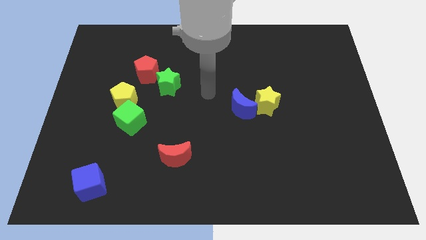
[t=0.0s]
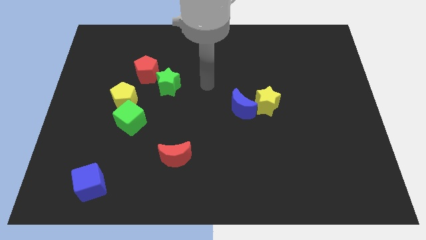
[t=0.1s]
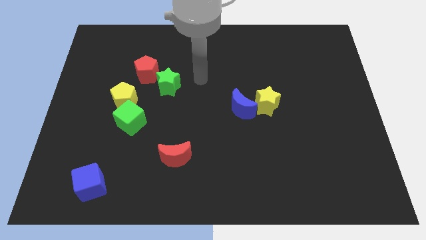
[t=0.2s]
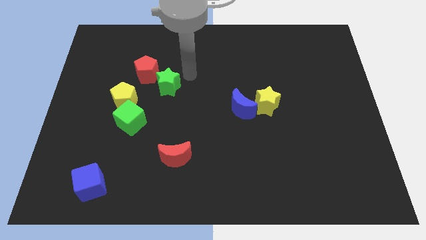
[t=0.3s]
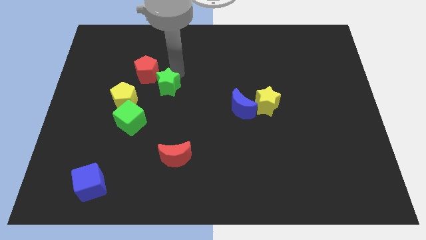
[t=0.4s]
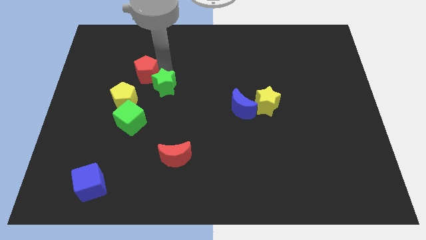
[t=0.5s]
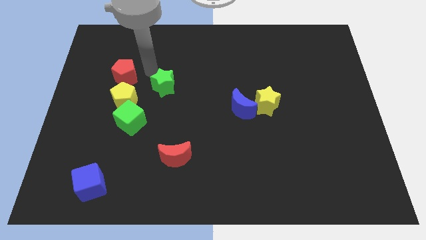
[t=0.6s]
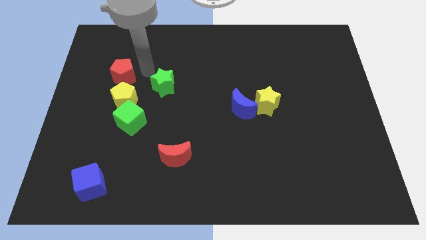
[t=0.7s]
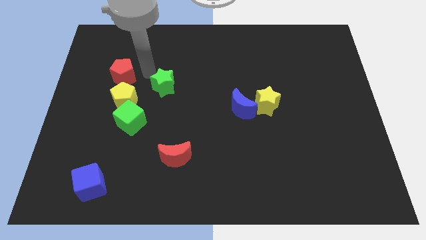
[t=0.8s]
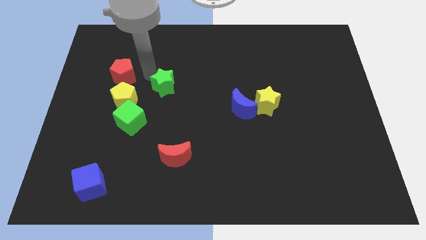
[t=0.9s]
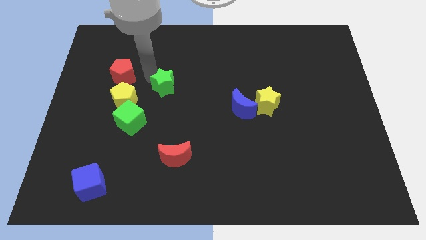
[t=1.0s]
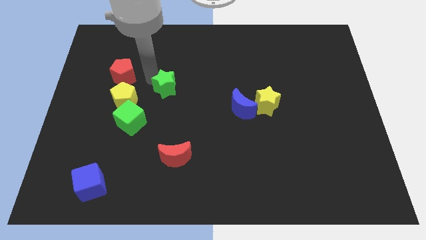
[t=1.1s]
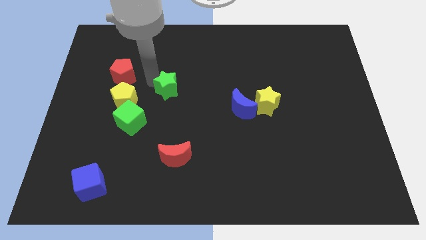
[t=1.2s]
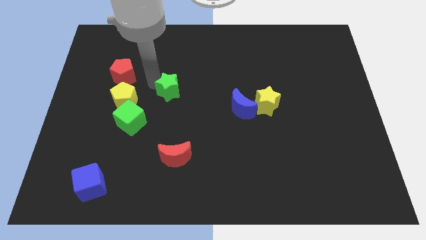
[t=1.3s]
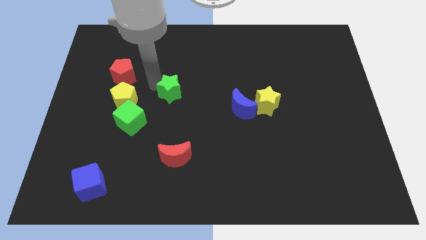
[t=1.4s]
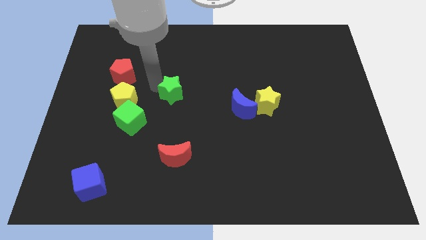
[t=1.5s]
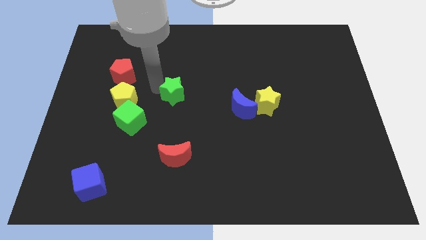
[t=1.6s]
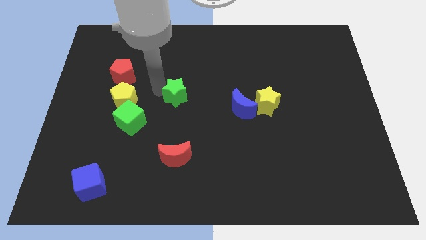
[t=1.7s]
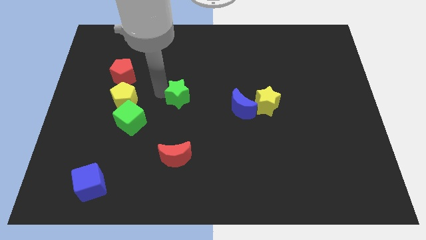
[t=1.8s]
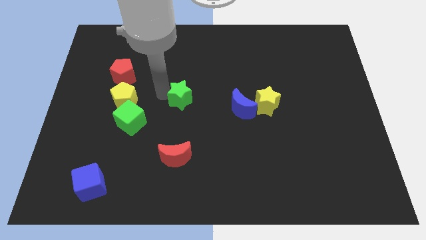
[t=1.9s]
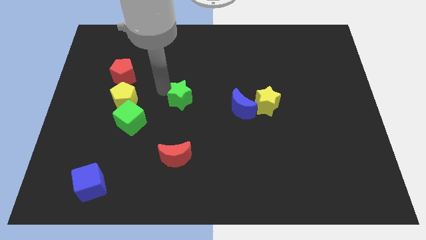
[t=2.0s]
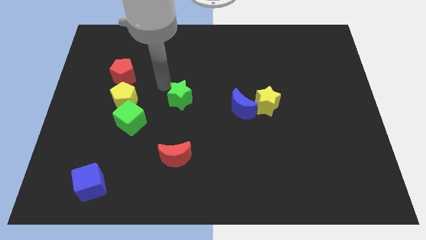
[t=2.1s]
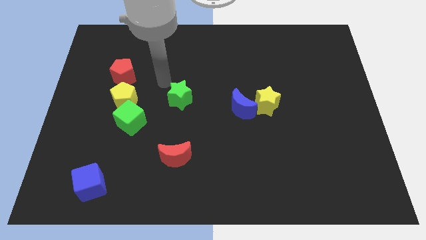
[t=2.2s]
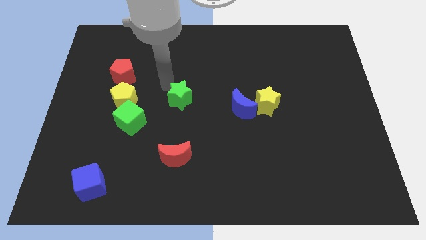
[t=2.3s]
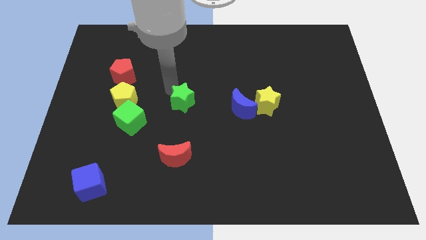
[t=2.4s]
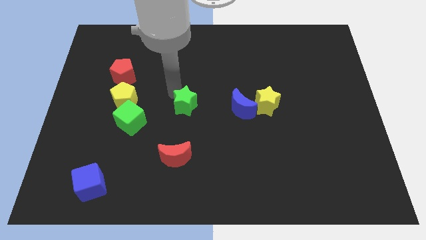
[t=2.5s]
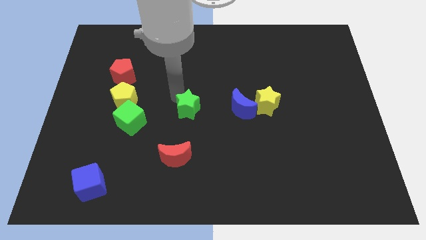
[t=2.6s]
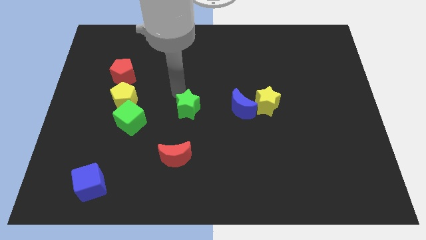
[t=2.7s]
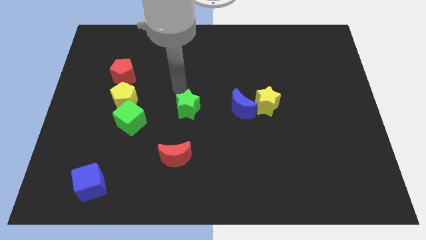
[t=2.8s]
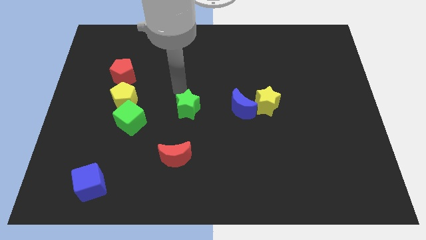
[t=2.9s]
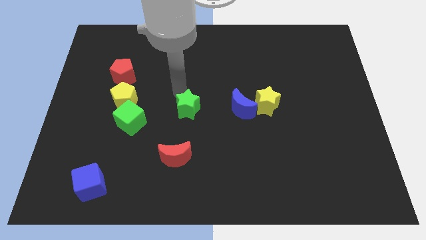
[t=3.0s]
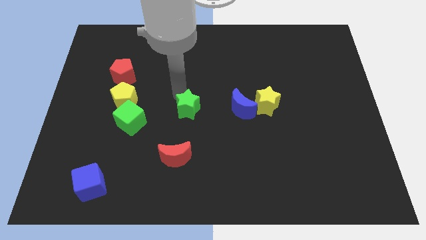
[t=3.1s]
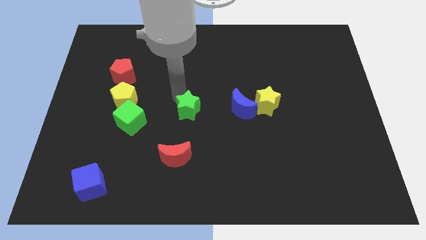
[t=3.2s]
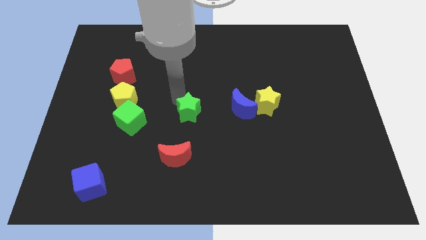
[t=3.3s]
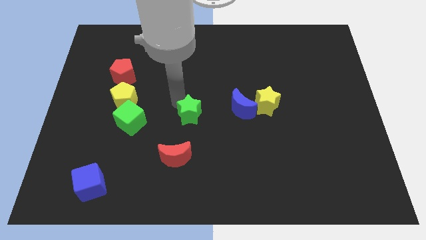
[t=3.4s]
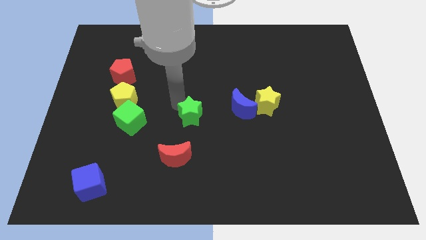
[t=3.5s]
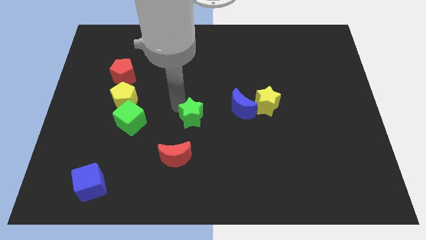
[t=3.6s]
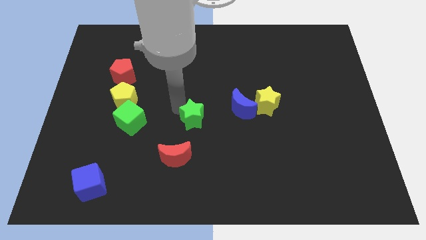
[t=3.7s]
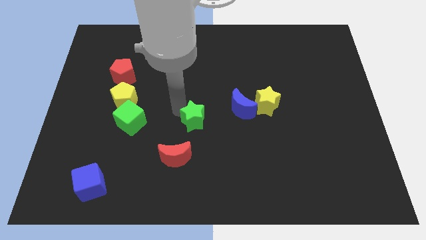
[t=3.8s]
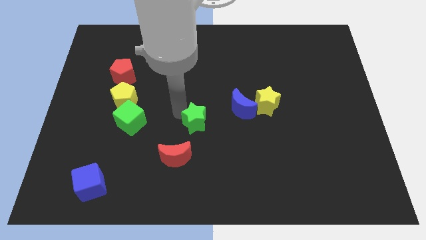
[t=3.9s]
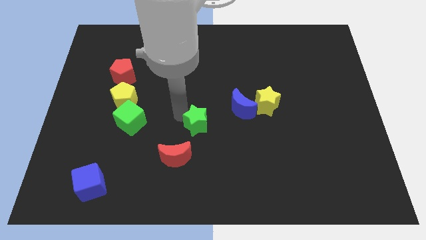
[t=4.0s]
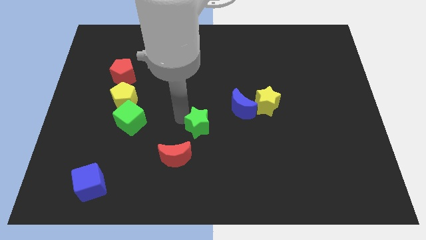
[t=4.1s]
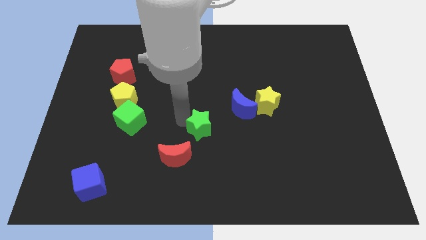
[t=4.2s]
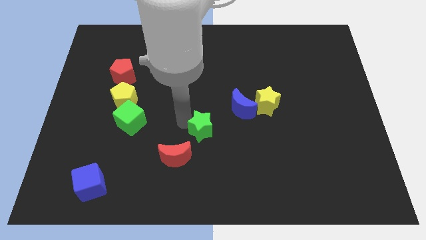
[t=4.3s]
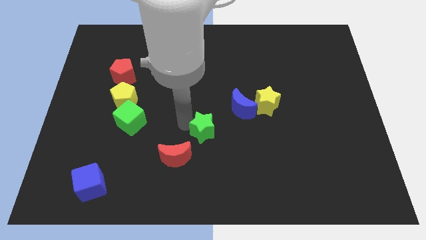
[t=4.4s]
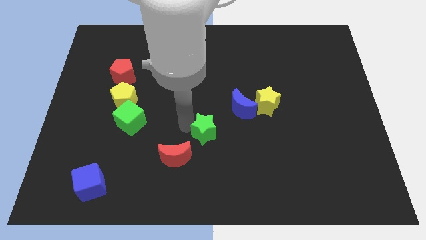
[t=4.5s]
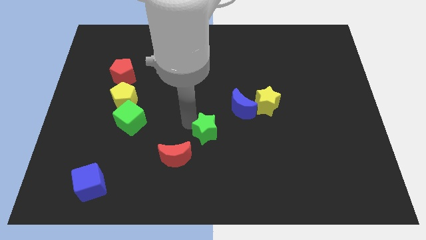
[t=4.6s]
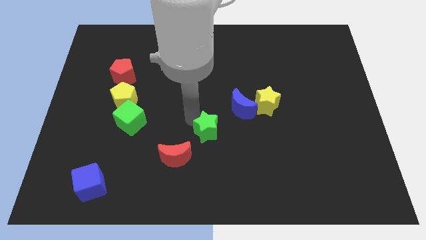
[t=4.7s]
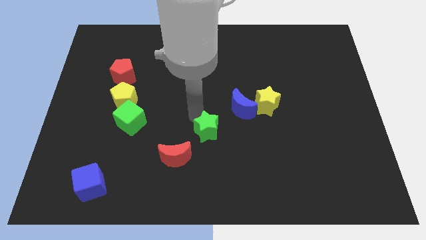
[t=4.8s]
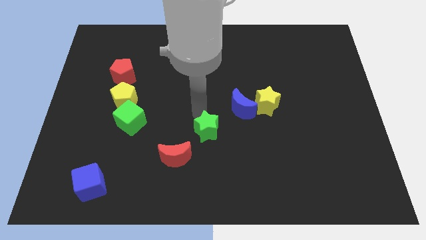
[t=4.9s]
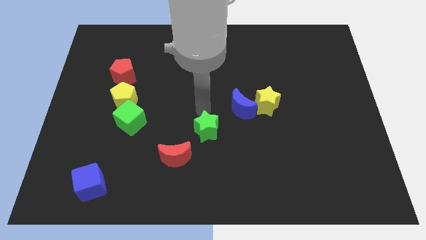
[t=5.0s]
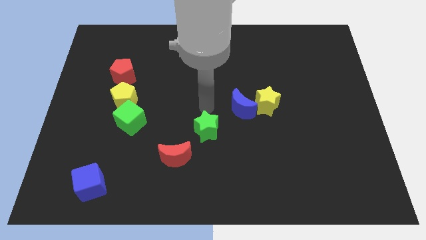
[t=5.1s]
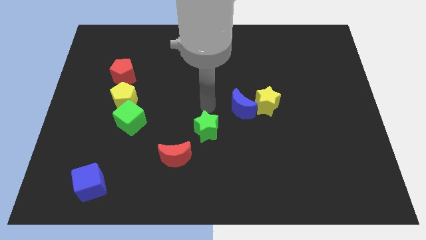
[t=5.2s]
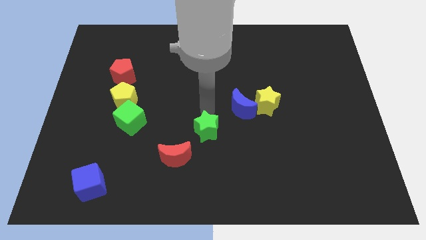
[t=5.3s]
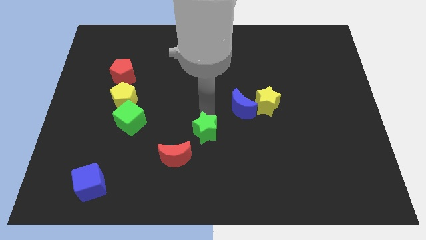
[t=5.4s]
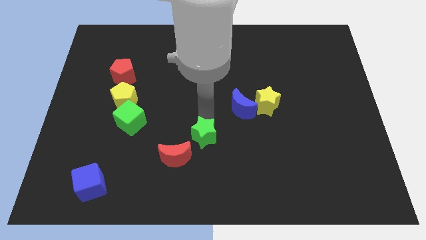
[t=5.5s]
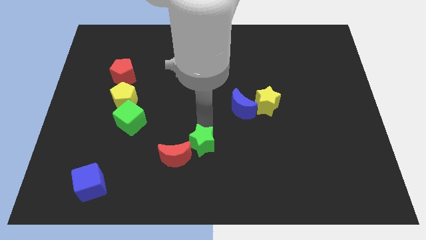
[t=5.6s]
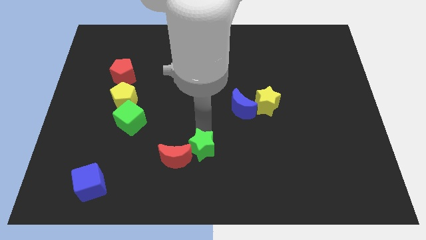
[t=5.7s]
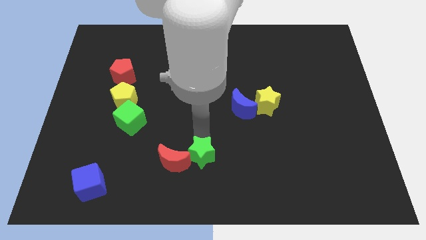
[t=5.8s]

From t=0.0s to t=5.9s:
push the green star to the bottom

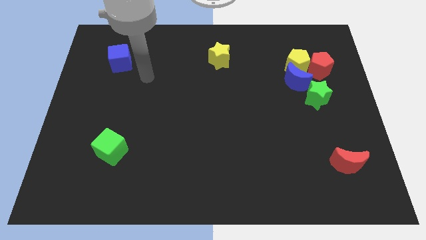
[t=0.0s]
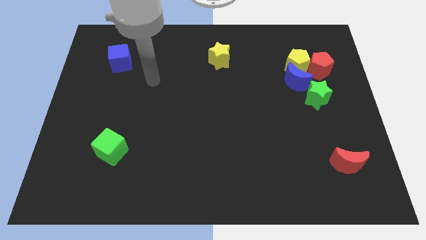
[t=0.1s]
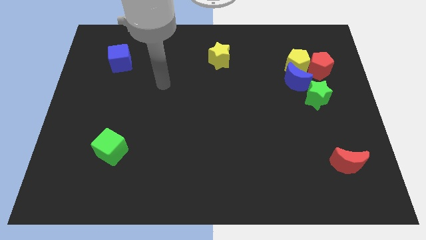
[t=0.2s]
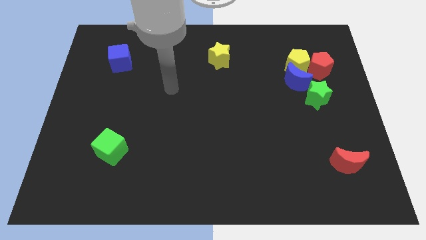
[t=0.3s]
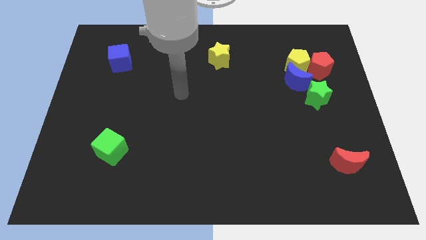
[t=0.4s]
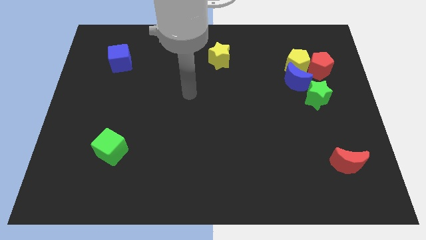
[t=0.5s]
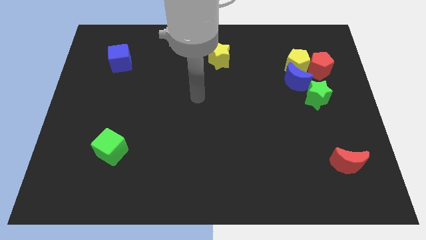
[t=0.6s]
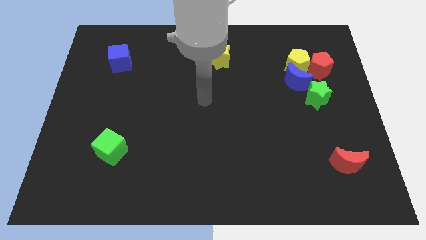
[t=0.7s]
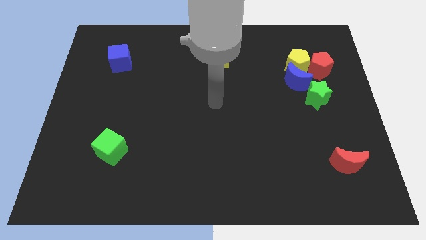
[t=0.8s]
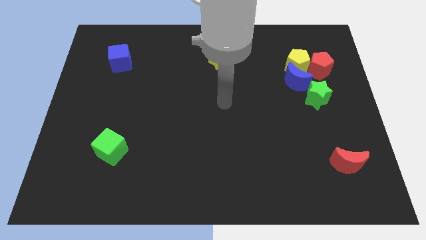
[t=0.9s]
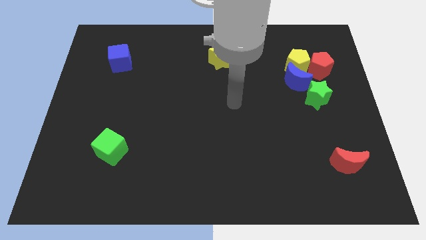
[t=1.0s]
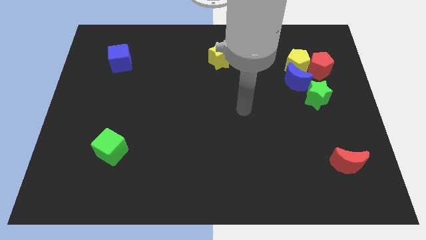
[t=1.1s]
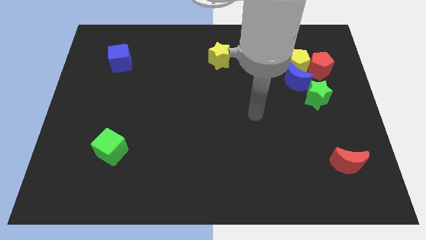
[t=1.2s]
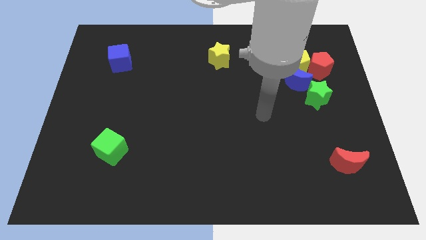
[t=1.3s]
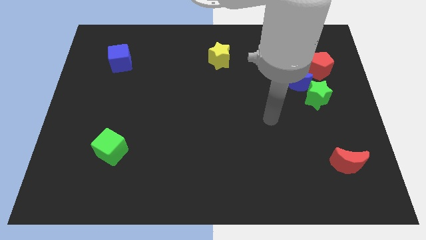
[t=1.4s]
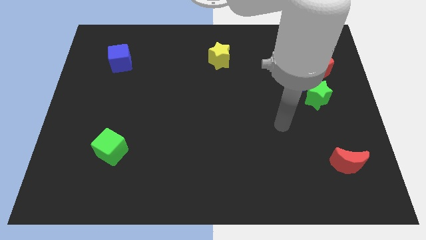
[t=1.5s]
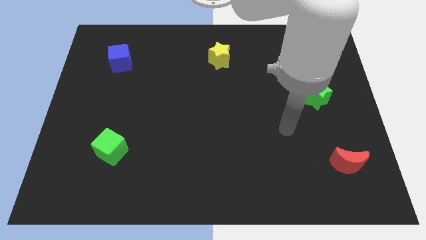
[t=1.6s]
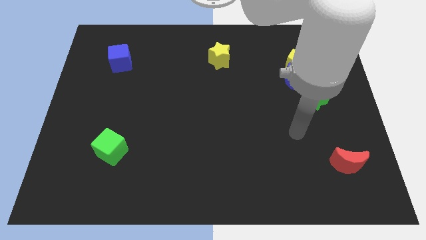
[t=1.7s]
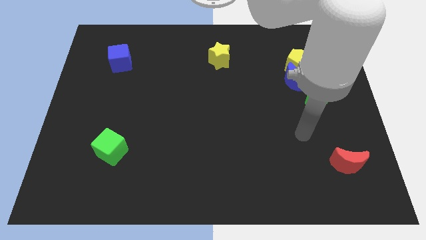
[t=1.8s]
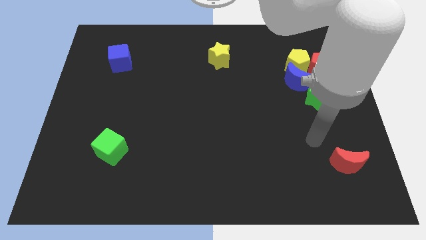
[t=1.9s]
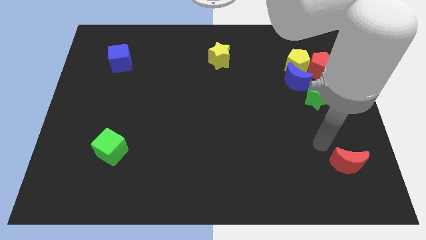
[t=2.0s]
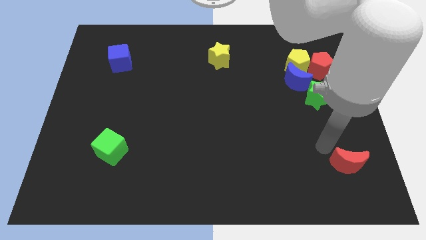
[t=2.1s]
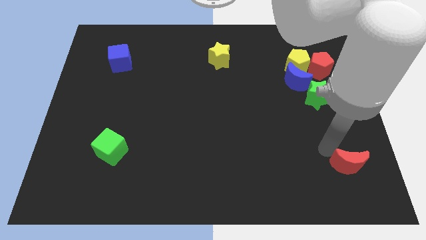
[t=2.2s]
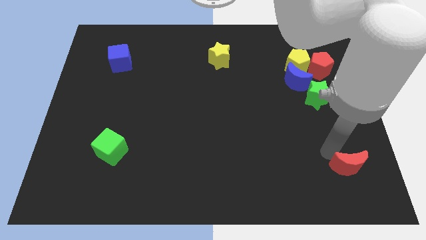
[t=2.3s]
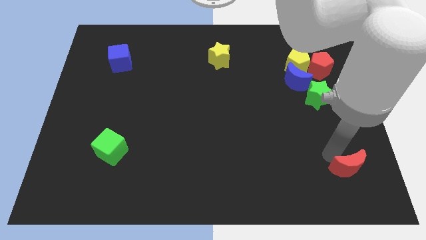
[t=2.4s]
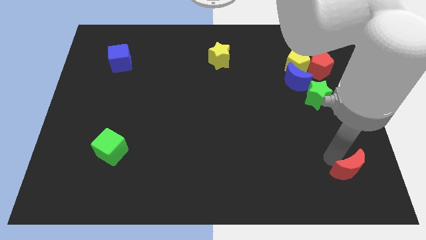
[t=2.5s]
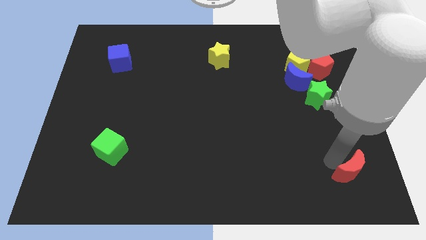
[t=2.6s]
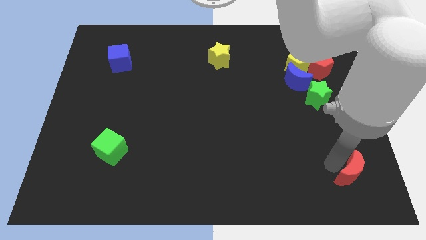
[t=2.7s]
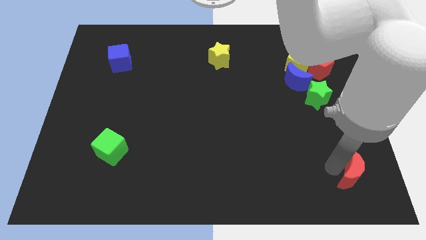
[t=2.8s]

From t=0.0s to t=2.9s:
put the red moon to the bottom right

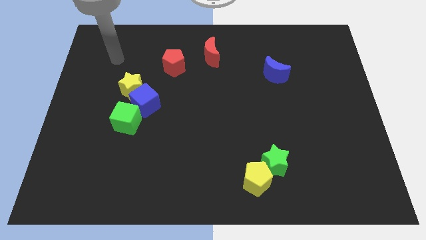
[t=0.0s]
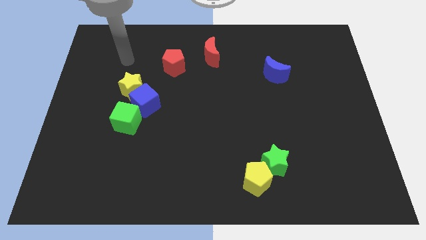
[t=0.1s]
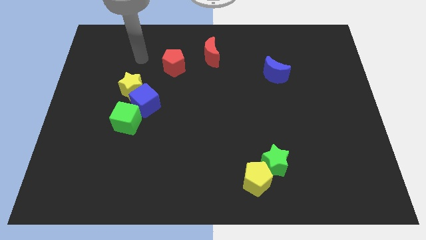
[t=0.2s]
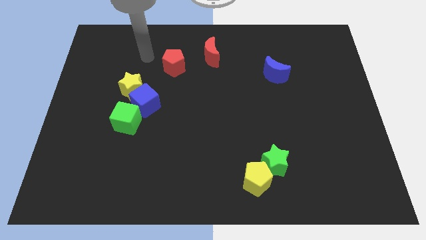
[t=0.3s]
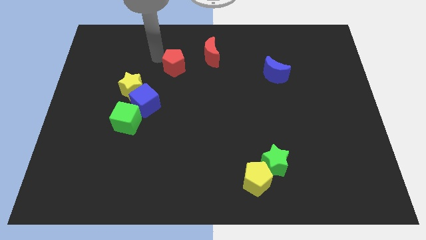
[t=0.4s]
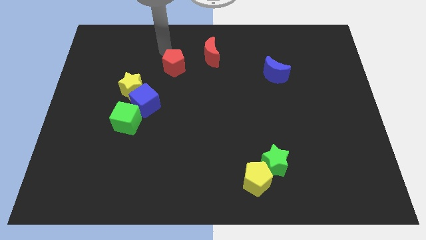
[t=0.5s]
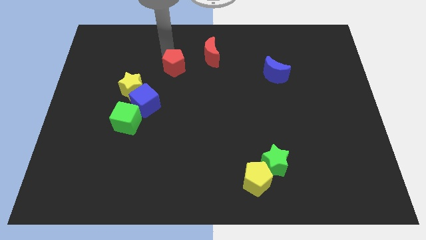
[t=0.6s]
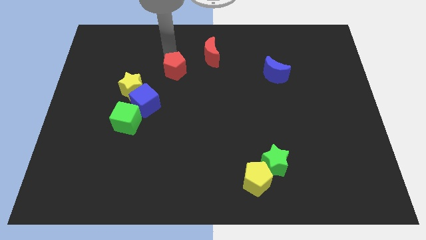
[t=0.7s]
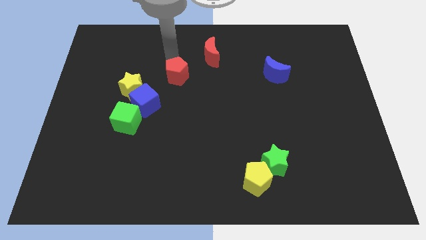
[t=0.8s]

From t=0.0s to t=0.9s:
move the red pentagon to the middle of the board
